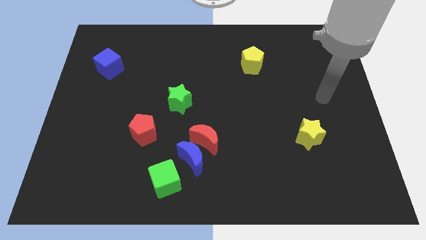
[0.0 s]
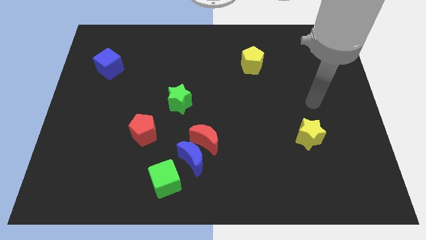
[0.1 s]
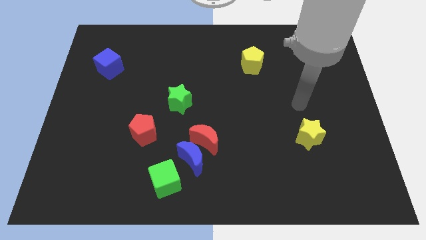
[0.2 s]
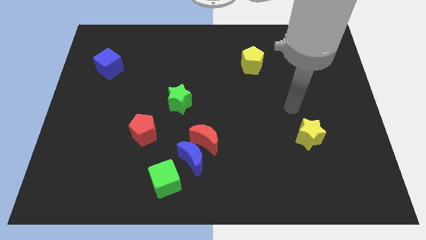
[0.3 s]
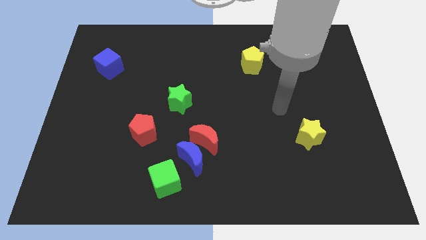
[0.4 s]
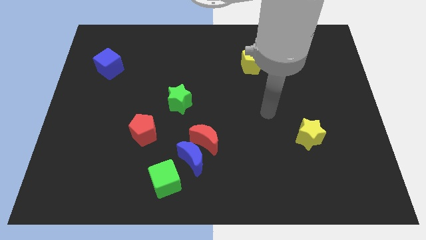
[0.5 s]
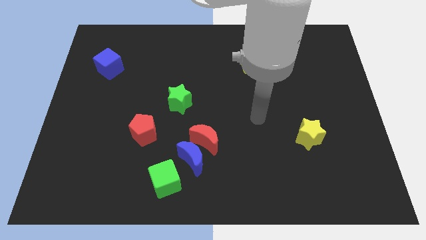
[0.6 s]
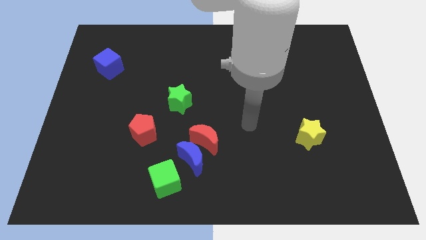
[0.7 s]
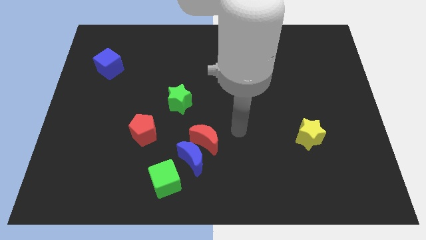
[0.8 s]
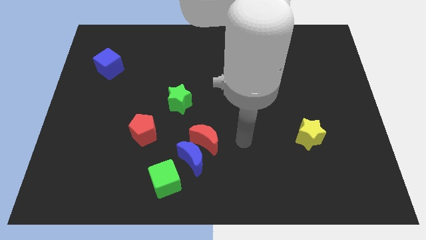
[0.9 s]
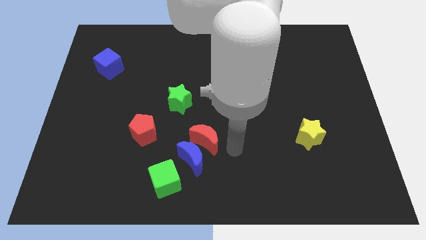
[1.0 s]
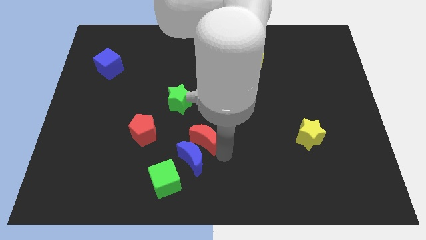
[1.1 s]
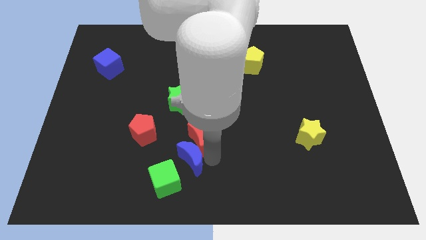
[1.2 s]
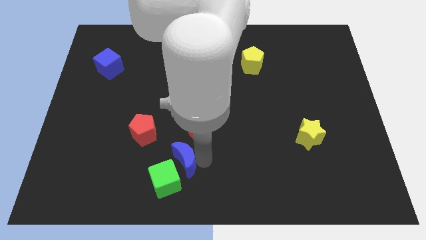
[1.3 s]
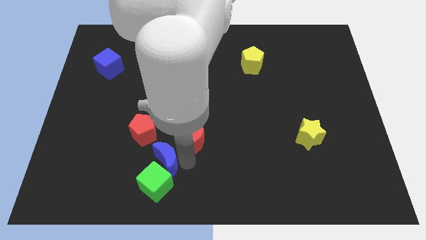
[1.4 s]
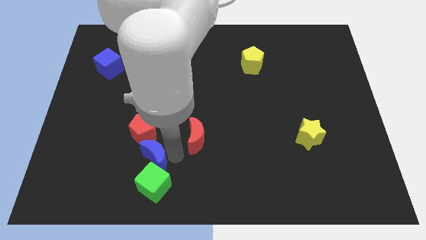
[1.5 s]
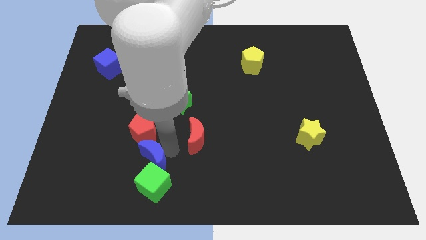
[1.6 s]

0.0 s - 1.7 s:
separate the red moon from the blue moon

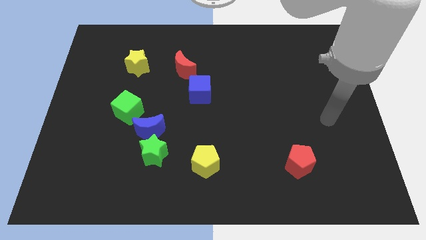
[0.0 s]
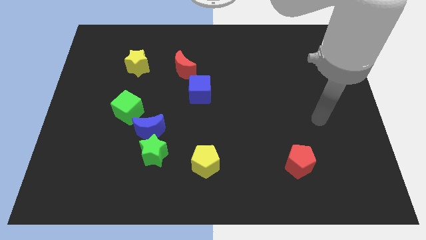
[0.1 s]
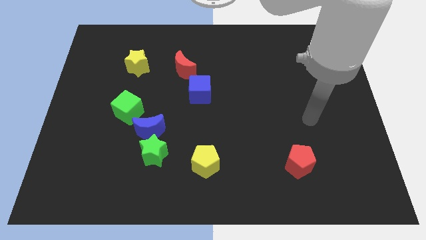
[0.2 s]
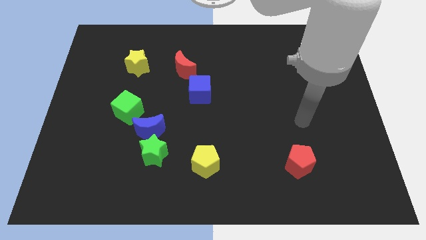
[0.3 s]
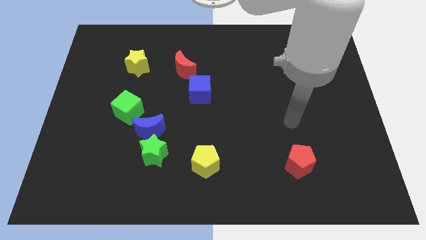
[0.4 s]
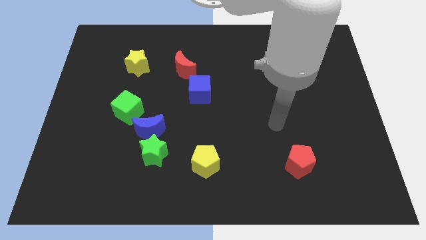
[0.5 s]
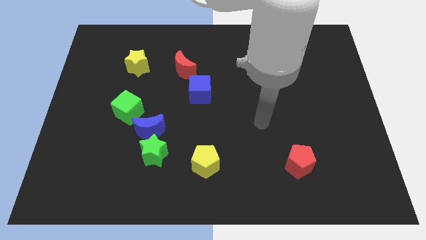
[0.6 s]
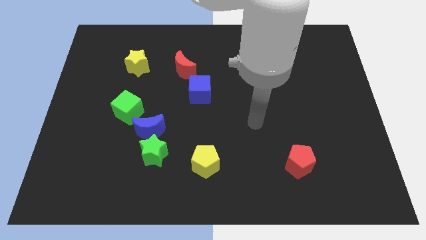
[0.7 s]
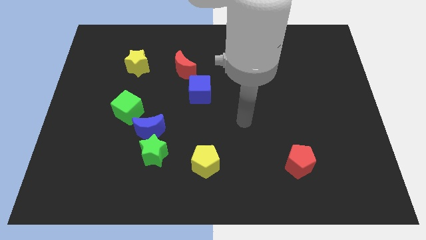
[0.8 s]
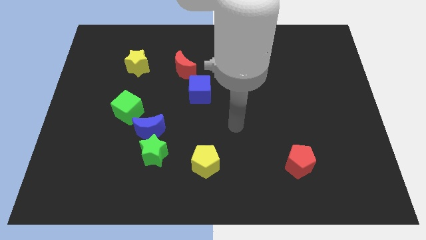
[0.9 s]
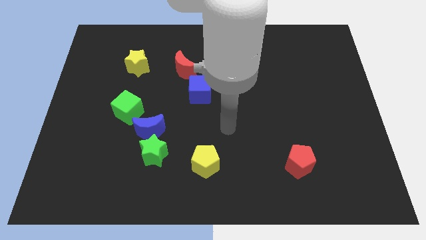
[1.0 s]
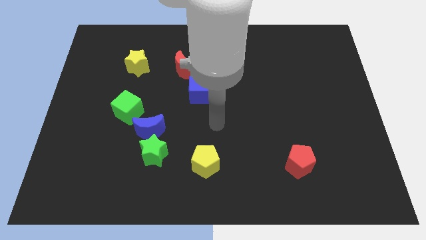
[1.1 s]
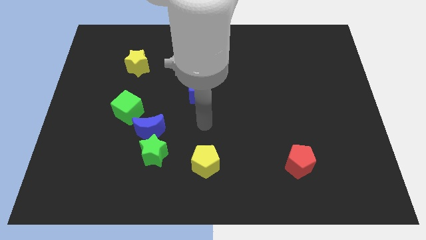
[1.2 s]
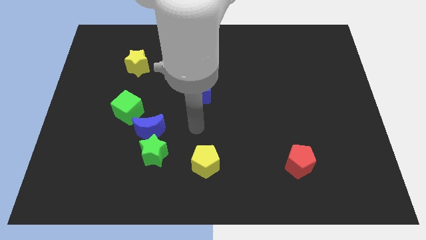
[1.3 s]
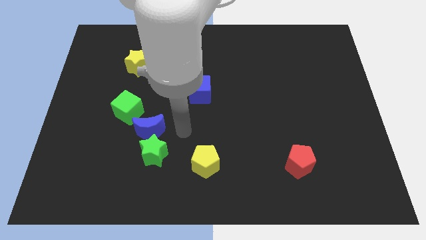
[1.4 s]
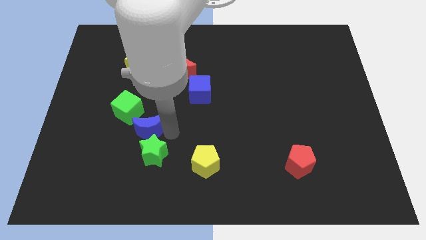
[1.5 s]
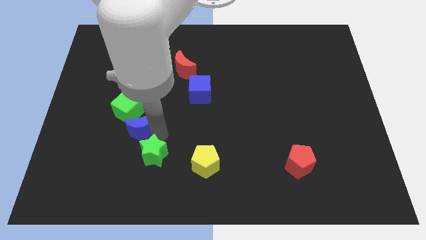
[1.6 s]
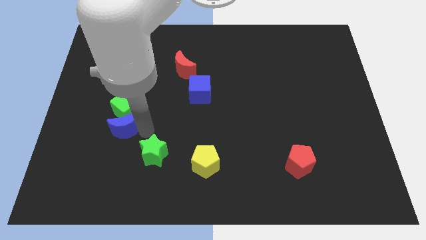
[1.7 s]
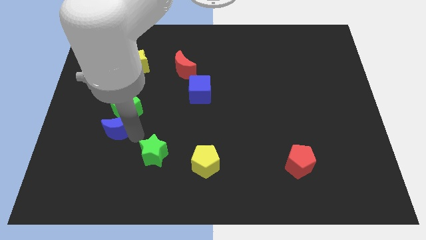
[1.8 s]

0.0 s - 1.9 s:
separate the green star from the blue moon

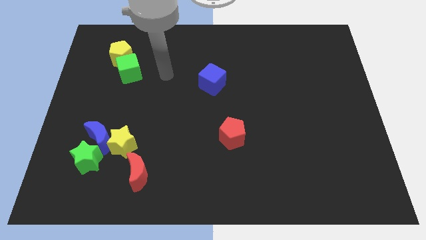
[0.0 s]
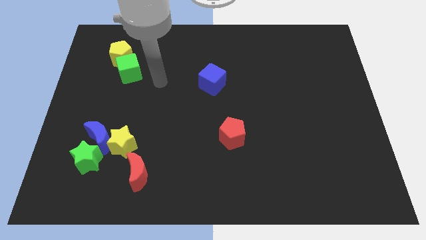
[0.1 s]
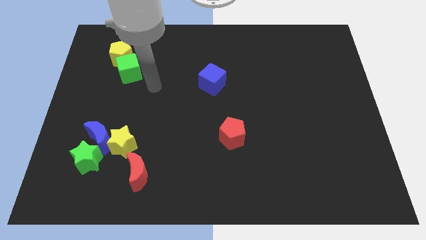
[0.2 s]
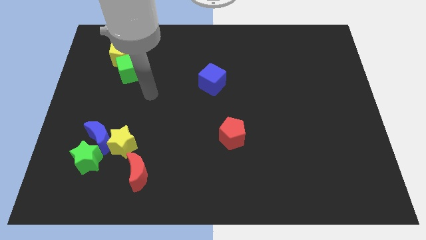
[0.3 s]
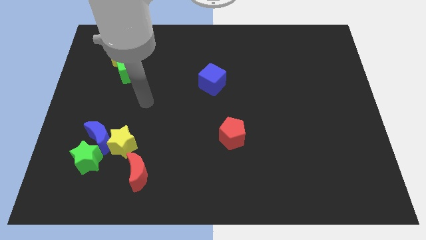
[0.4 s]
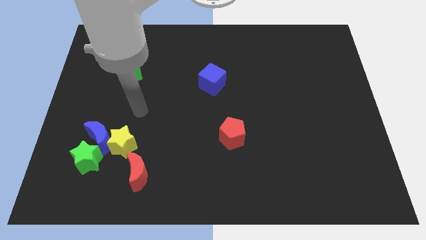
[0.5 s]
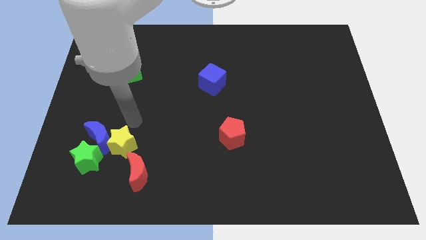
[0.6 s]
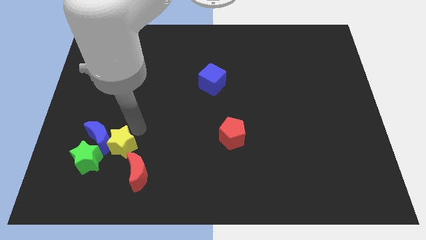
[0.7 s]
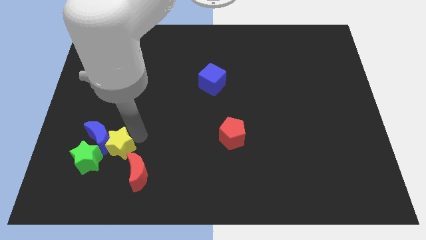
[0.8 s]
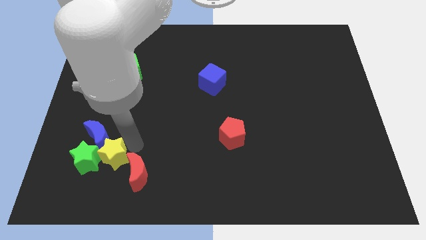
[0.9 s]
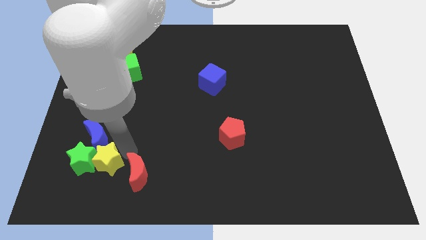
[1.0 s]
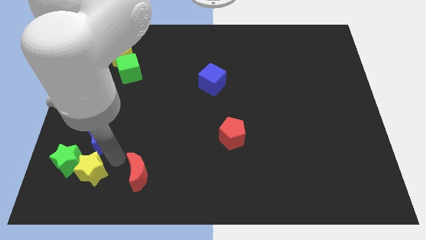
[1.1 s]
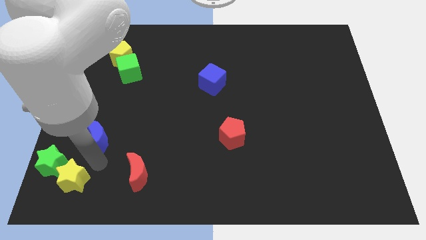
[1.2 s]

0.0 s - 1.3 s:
move the blue moon away from the yellow star and green star

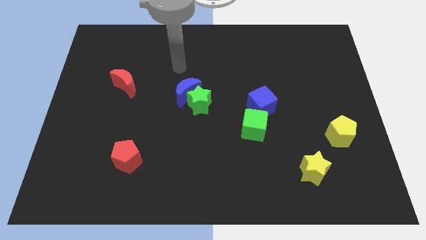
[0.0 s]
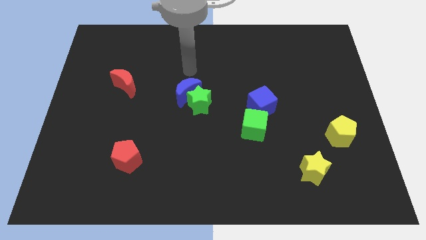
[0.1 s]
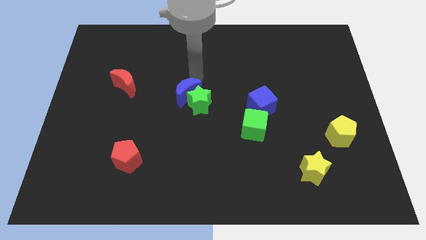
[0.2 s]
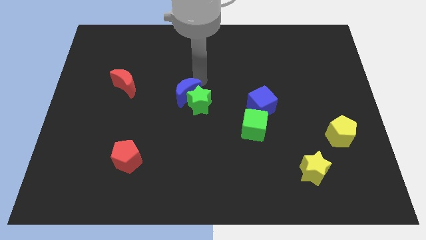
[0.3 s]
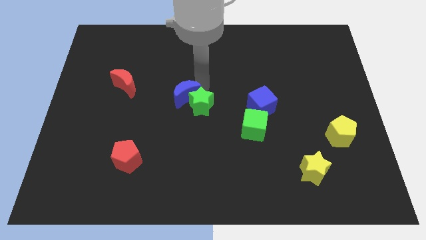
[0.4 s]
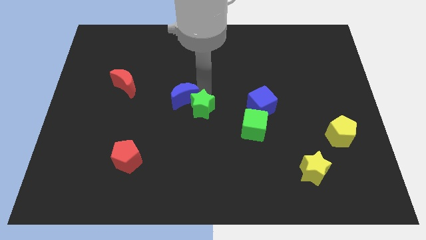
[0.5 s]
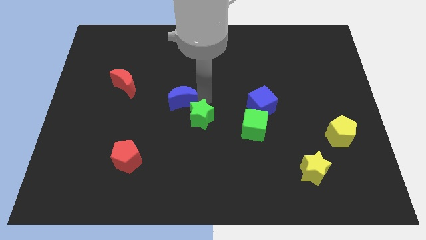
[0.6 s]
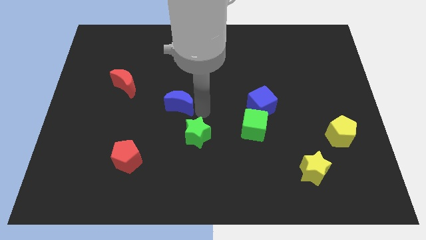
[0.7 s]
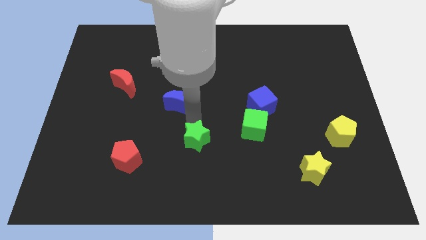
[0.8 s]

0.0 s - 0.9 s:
move the blue moon away from the green star

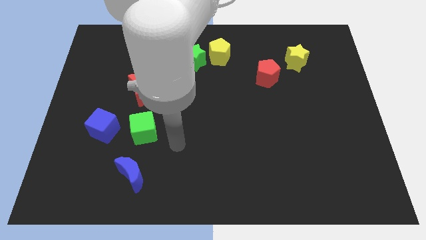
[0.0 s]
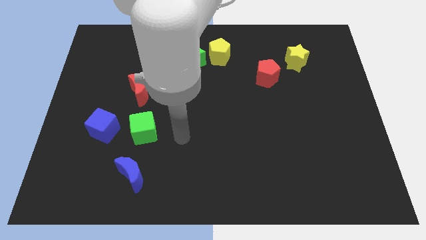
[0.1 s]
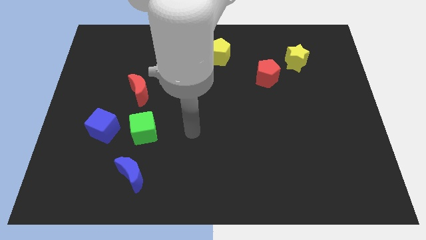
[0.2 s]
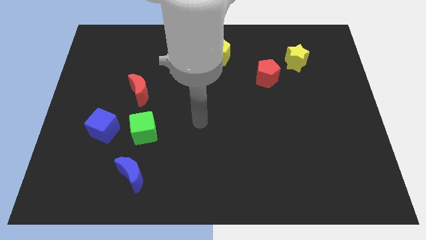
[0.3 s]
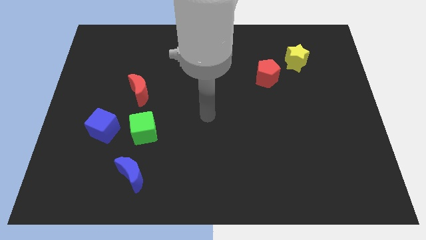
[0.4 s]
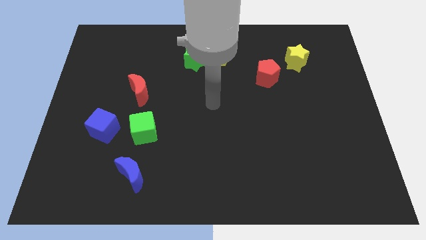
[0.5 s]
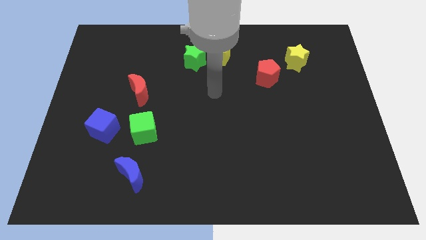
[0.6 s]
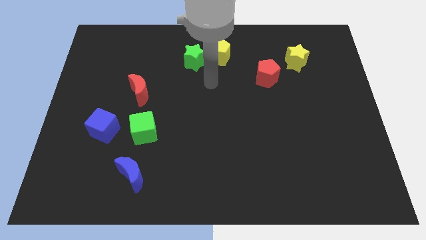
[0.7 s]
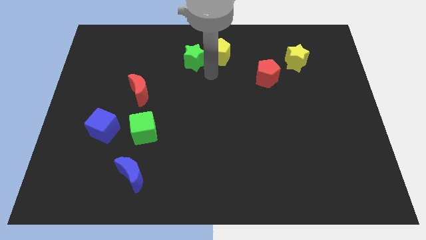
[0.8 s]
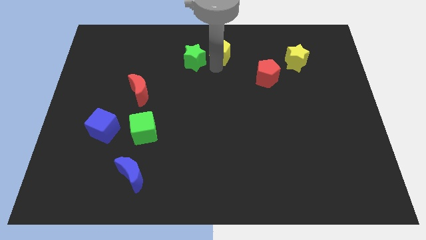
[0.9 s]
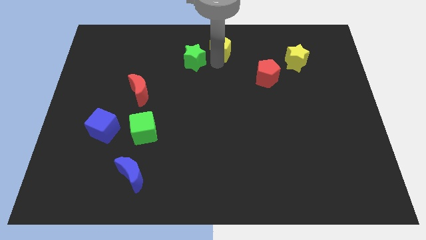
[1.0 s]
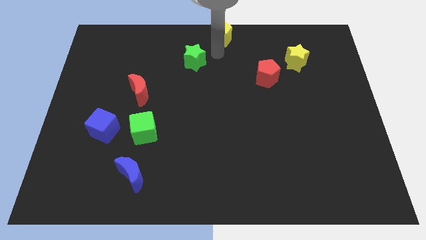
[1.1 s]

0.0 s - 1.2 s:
move the green star away from the yellow pentagon

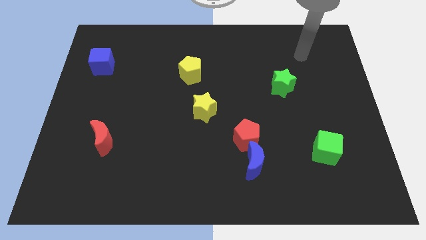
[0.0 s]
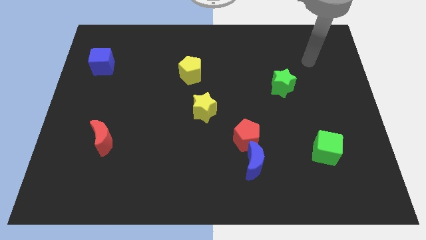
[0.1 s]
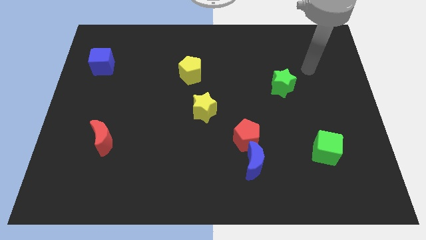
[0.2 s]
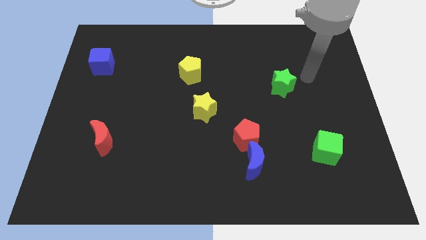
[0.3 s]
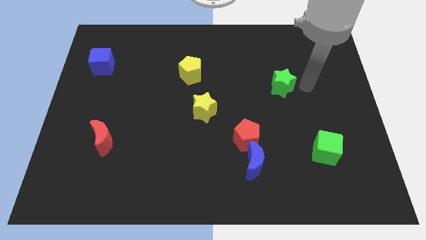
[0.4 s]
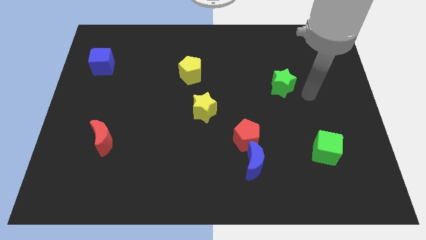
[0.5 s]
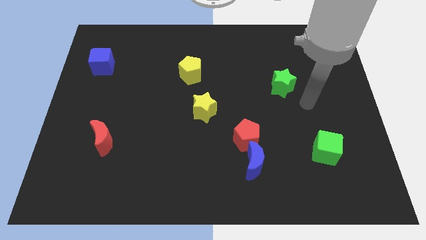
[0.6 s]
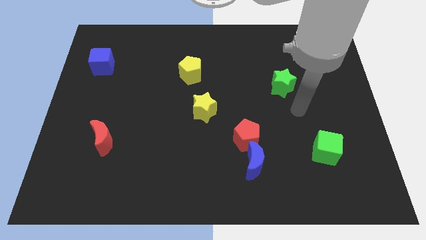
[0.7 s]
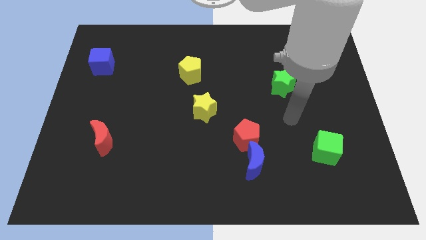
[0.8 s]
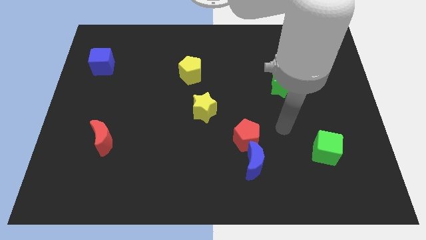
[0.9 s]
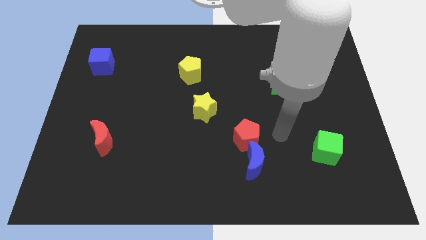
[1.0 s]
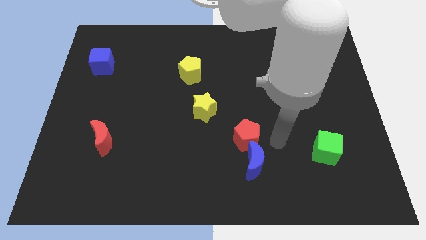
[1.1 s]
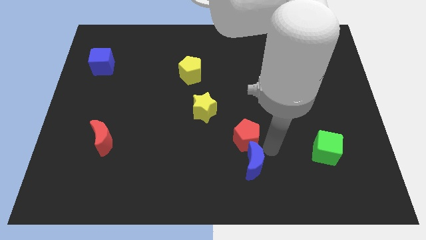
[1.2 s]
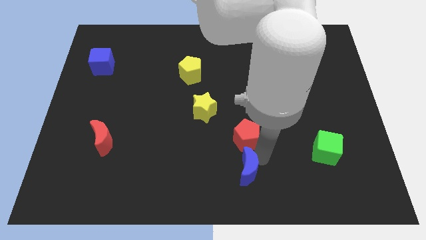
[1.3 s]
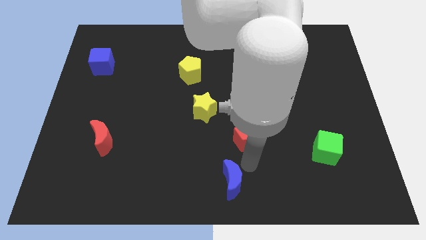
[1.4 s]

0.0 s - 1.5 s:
move the red pentagon away from the blue moon

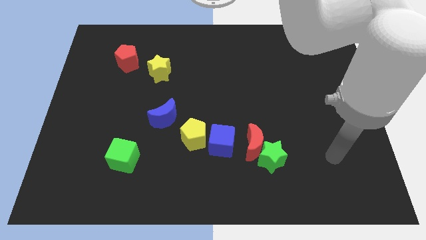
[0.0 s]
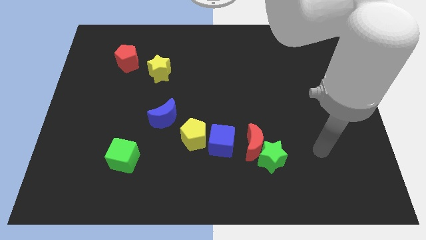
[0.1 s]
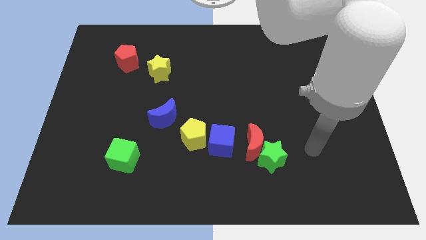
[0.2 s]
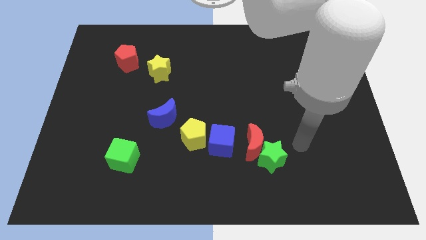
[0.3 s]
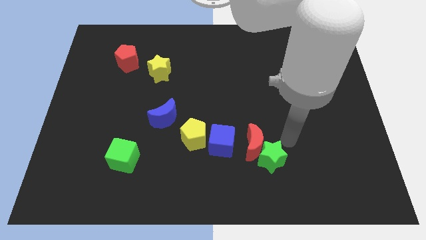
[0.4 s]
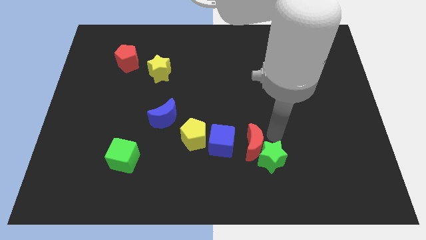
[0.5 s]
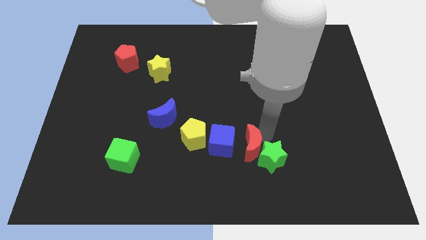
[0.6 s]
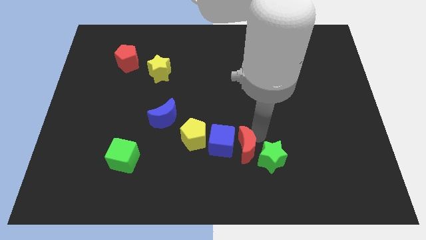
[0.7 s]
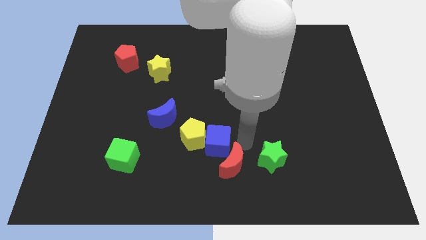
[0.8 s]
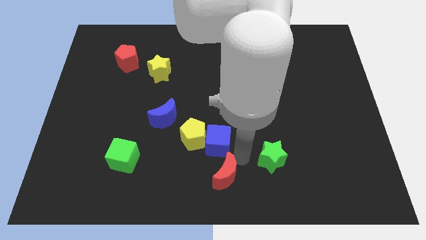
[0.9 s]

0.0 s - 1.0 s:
move the green star away from the red moon
